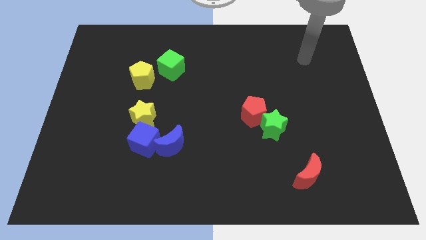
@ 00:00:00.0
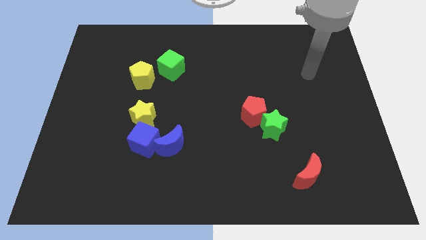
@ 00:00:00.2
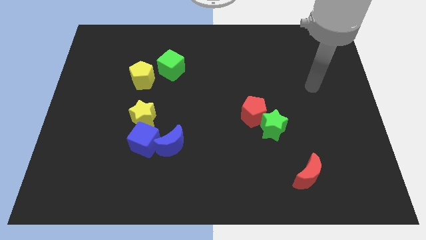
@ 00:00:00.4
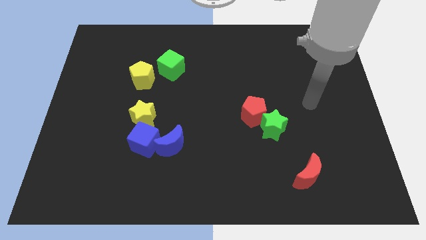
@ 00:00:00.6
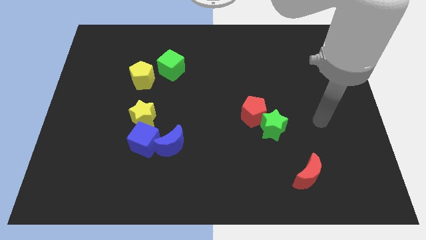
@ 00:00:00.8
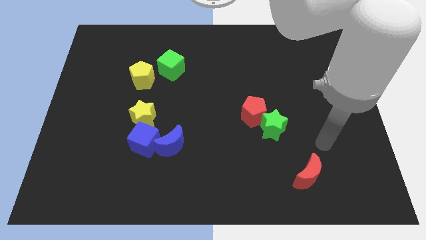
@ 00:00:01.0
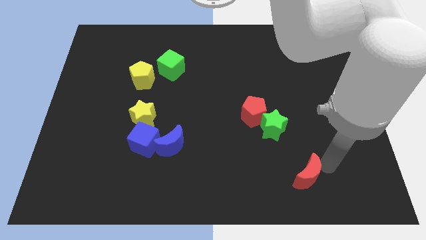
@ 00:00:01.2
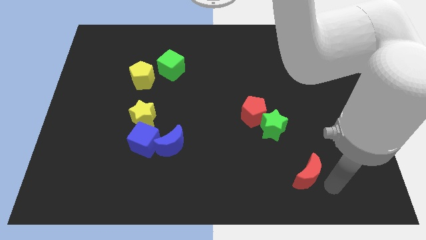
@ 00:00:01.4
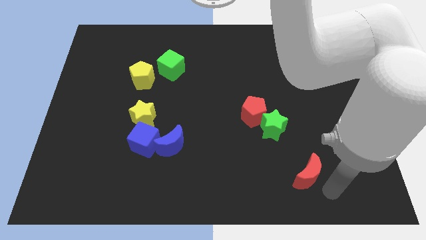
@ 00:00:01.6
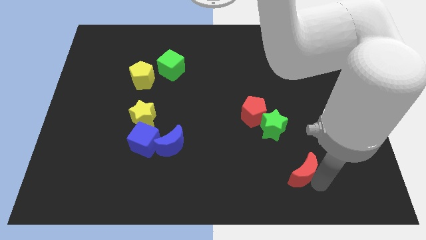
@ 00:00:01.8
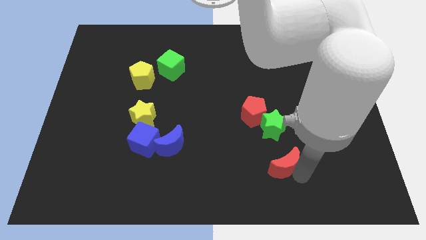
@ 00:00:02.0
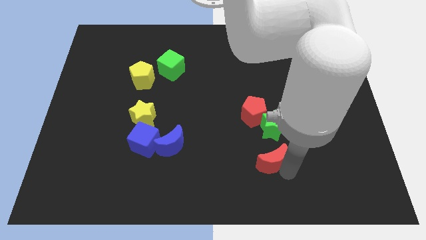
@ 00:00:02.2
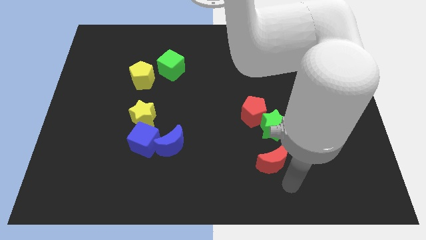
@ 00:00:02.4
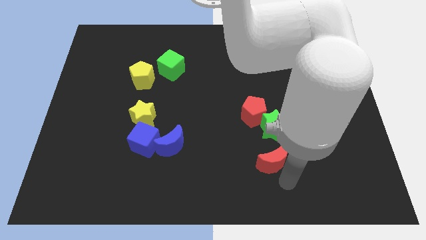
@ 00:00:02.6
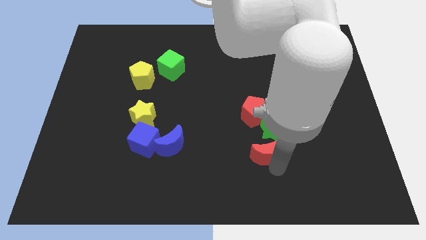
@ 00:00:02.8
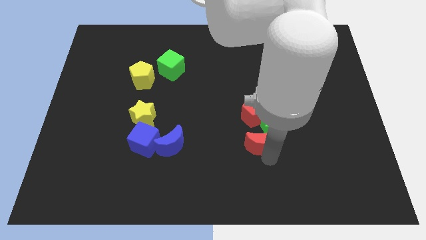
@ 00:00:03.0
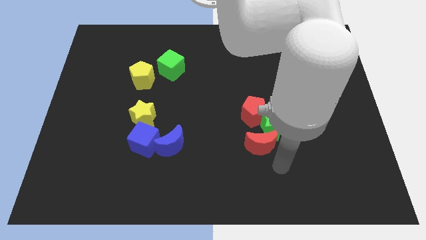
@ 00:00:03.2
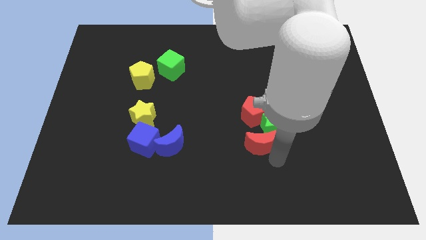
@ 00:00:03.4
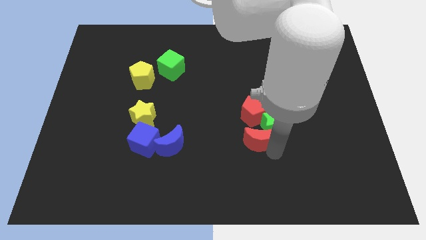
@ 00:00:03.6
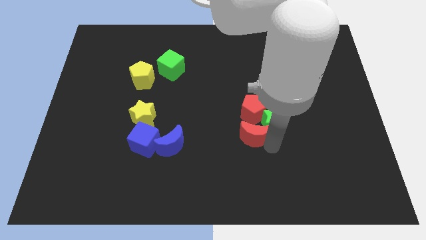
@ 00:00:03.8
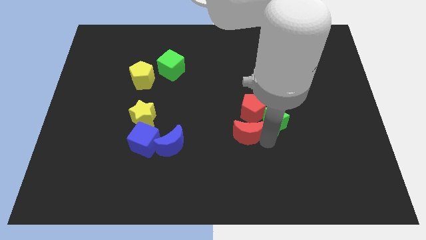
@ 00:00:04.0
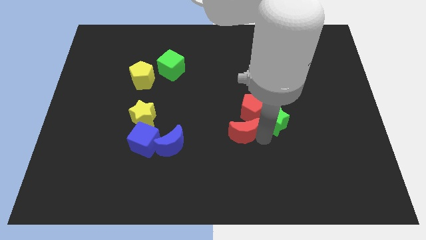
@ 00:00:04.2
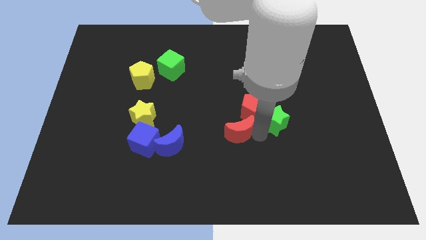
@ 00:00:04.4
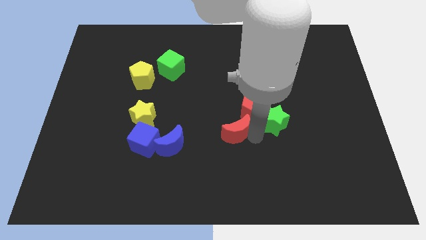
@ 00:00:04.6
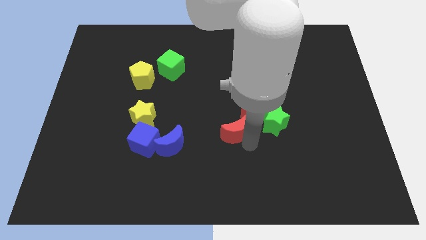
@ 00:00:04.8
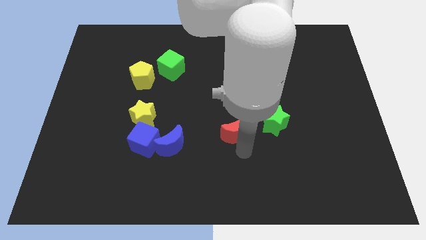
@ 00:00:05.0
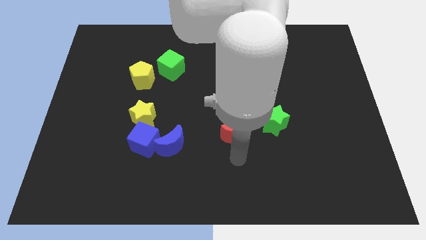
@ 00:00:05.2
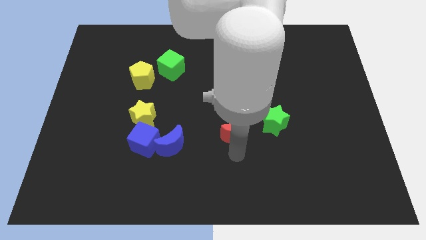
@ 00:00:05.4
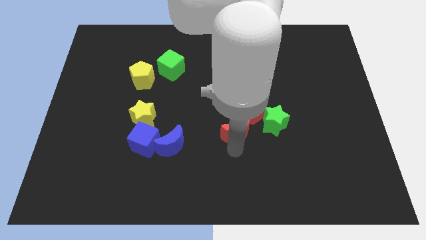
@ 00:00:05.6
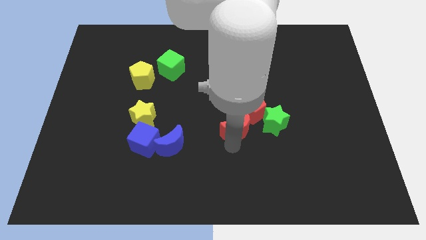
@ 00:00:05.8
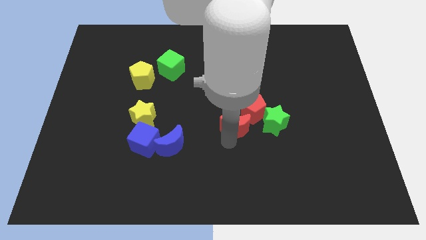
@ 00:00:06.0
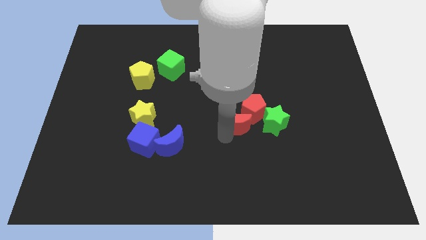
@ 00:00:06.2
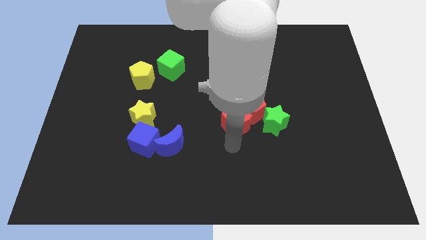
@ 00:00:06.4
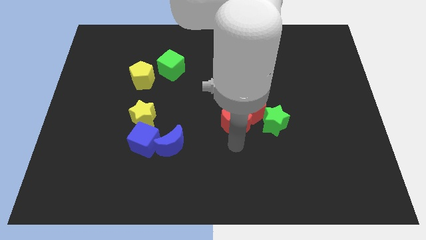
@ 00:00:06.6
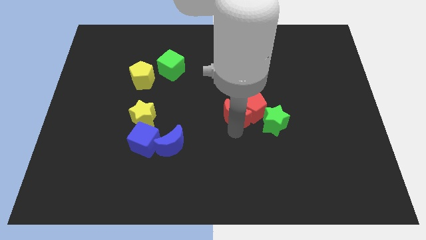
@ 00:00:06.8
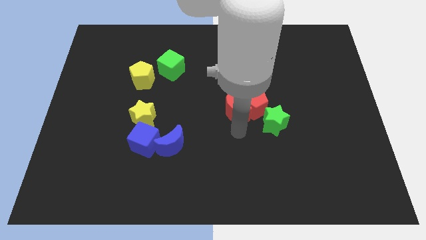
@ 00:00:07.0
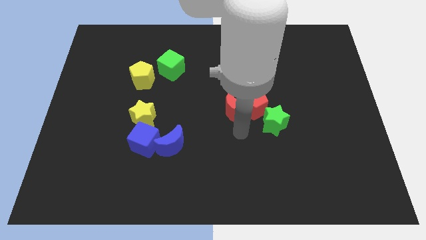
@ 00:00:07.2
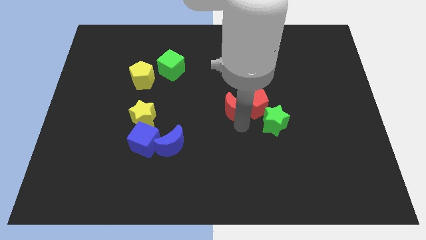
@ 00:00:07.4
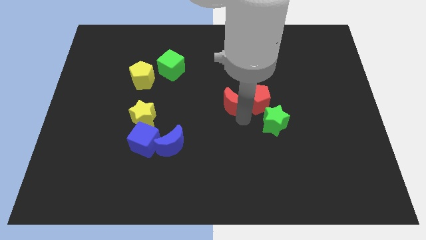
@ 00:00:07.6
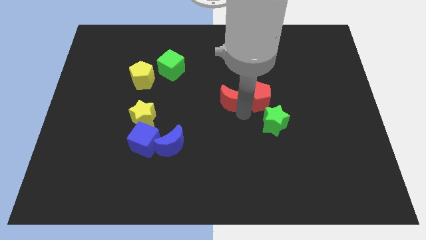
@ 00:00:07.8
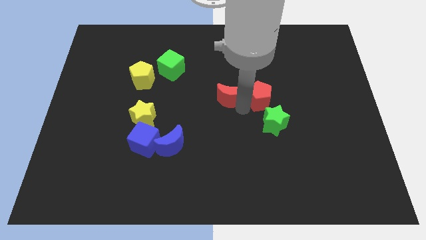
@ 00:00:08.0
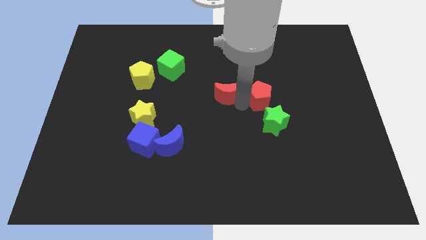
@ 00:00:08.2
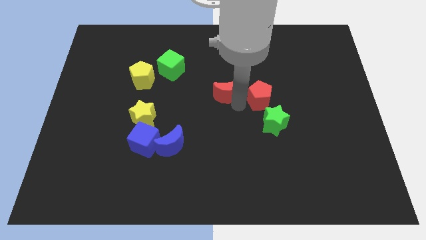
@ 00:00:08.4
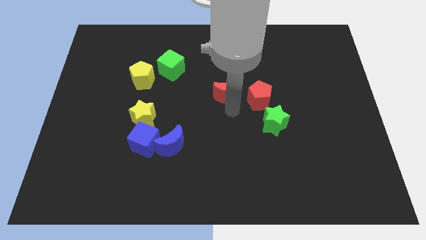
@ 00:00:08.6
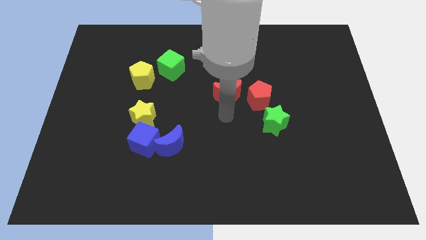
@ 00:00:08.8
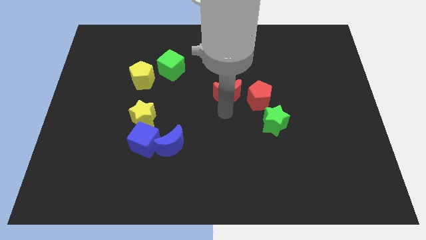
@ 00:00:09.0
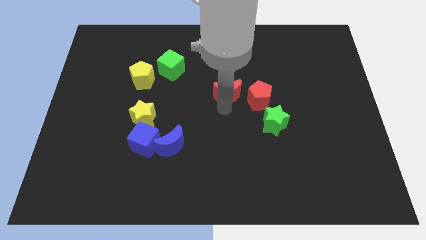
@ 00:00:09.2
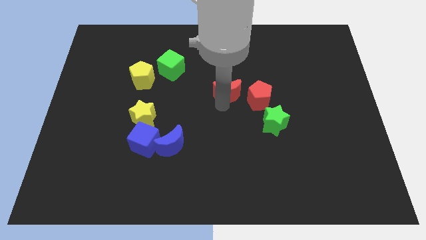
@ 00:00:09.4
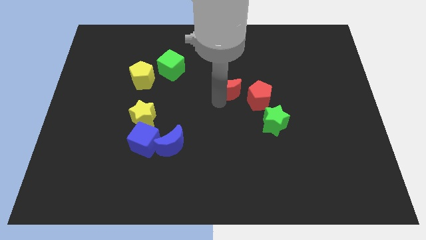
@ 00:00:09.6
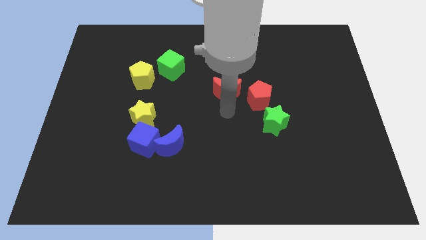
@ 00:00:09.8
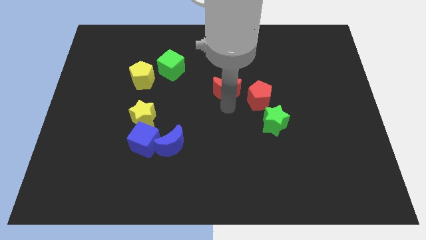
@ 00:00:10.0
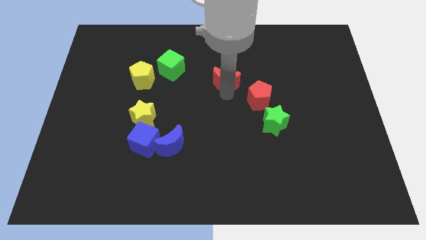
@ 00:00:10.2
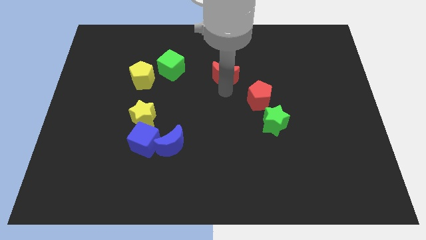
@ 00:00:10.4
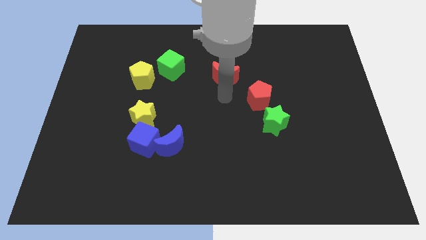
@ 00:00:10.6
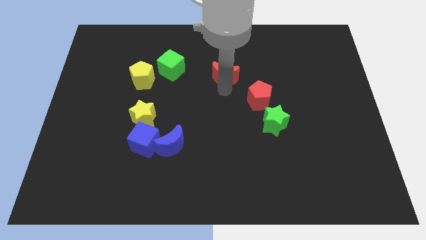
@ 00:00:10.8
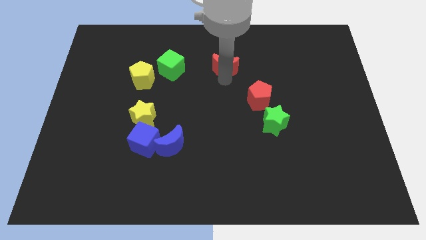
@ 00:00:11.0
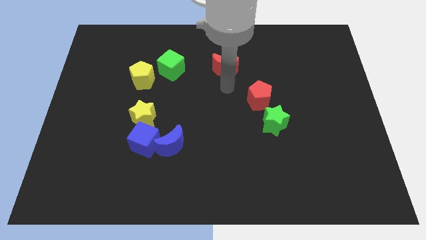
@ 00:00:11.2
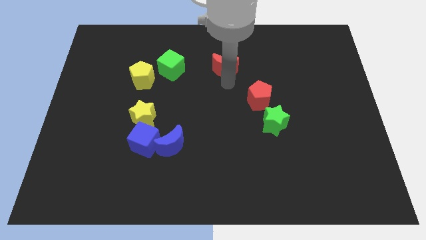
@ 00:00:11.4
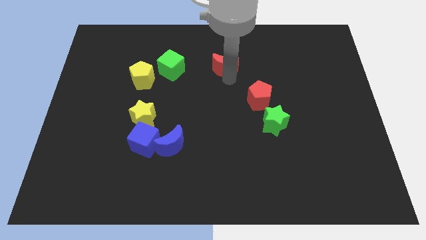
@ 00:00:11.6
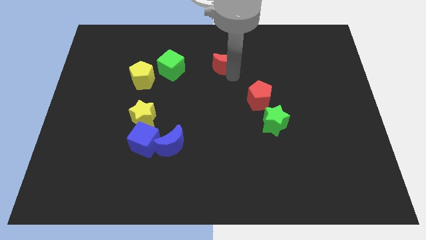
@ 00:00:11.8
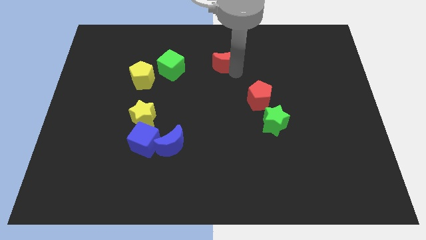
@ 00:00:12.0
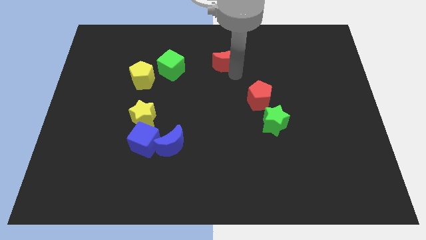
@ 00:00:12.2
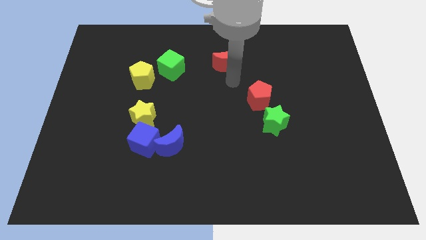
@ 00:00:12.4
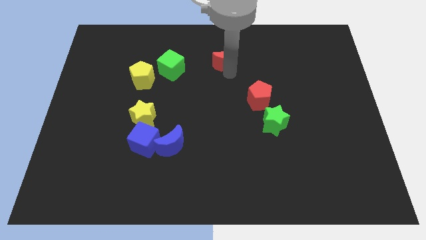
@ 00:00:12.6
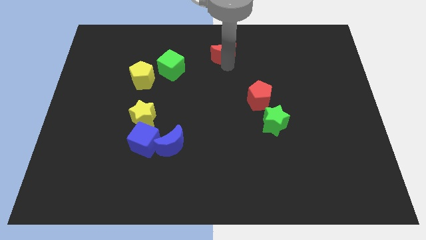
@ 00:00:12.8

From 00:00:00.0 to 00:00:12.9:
put the red moon to the top side
